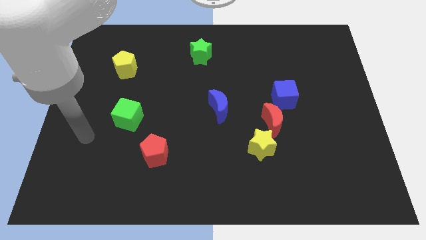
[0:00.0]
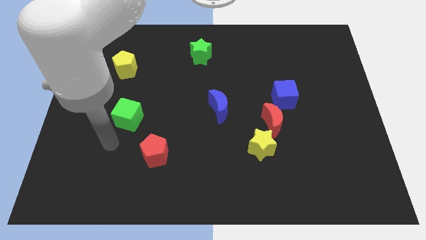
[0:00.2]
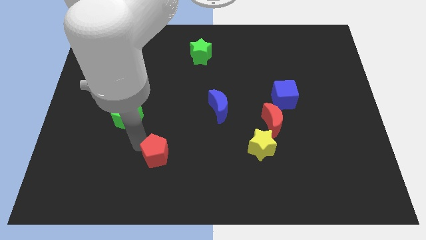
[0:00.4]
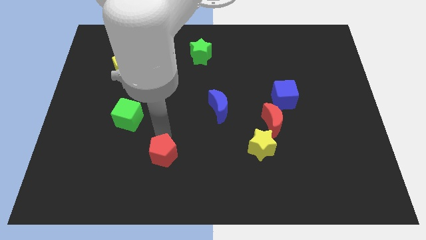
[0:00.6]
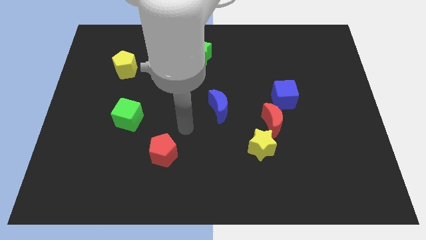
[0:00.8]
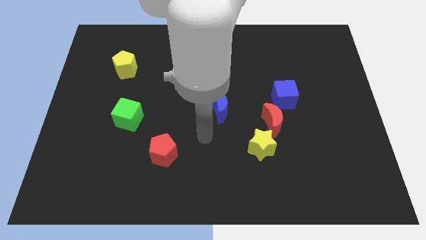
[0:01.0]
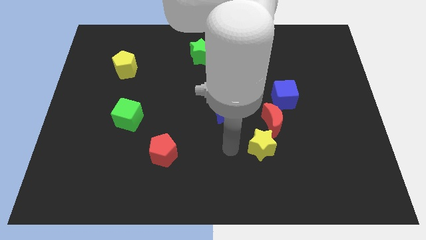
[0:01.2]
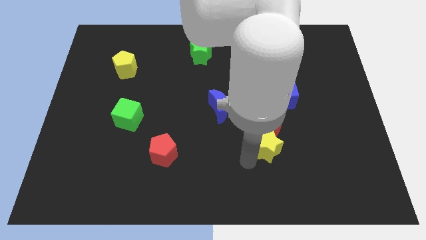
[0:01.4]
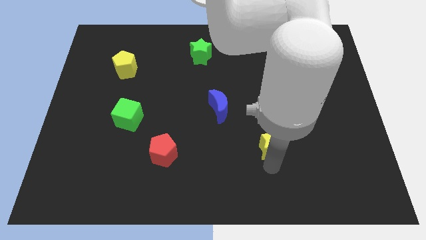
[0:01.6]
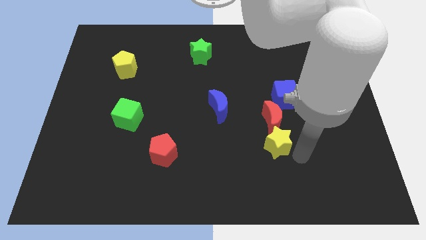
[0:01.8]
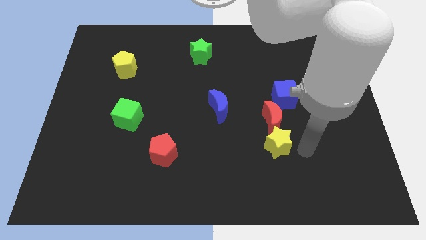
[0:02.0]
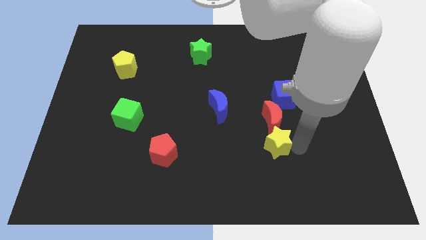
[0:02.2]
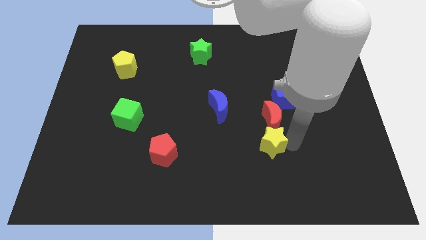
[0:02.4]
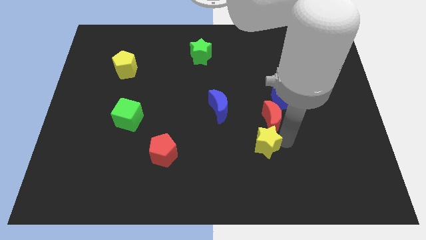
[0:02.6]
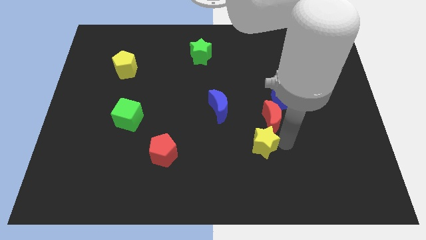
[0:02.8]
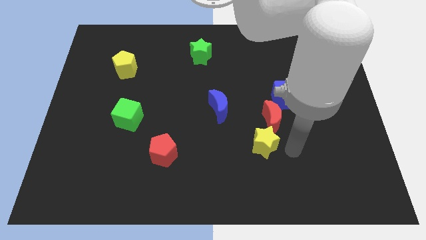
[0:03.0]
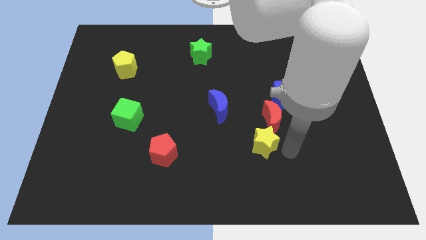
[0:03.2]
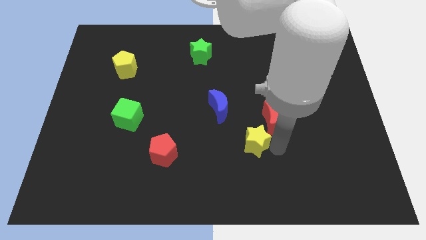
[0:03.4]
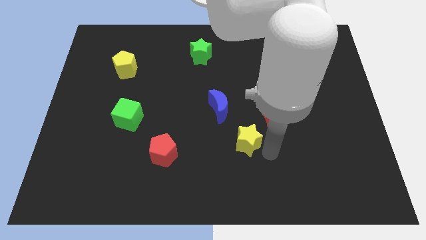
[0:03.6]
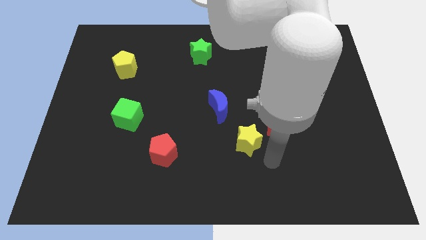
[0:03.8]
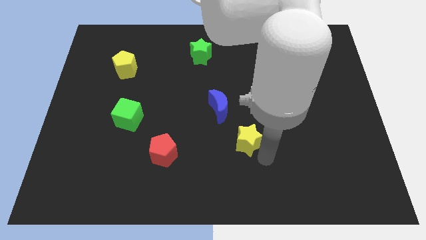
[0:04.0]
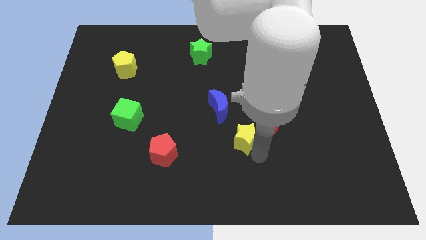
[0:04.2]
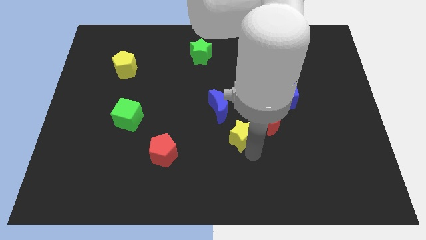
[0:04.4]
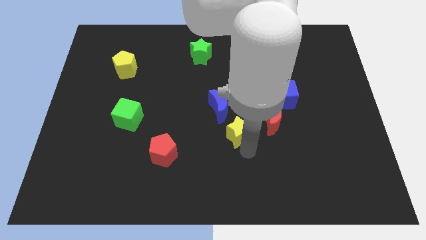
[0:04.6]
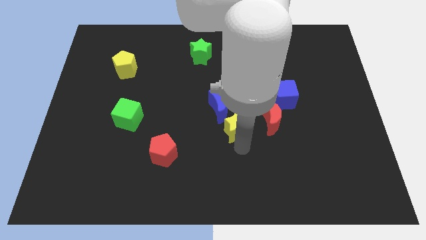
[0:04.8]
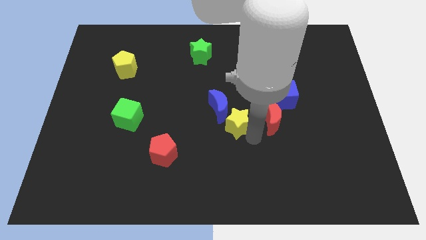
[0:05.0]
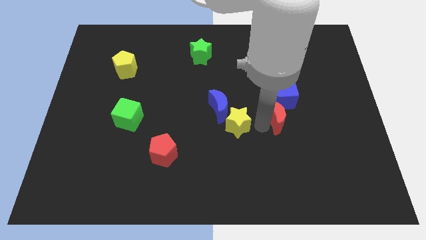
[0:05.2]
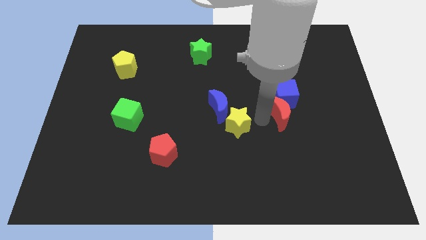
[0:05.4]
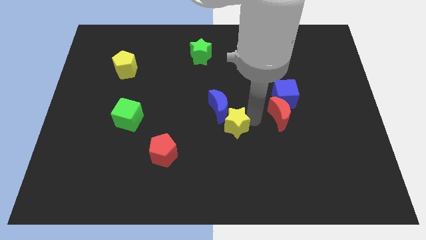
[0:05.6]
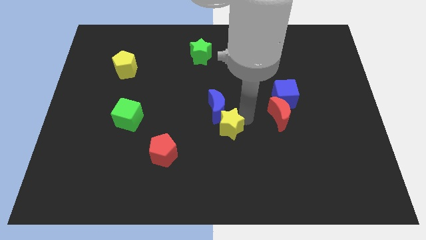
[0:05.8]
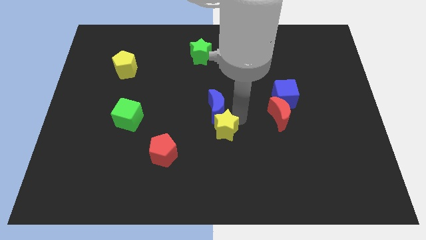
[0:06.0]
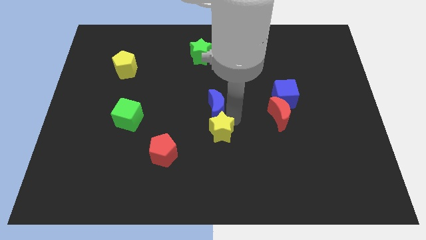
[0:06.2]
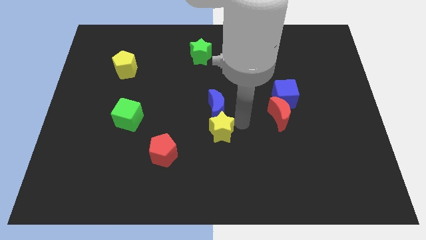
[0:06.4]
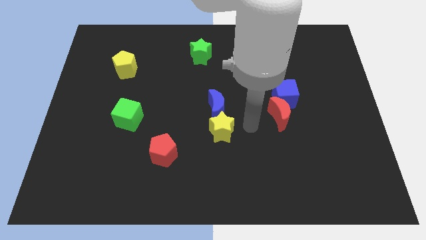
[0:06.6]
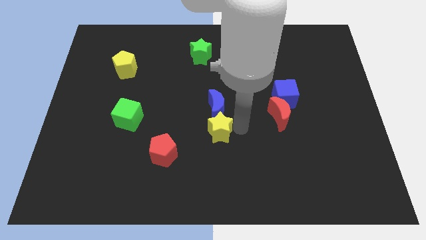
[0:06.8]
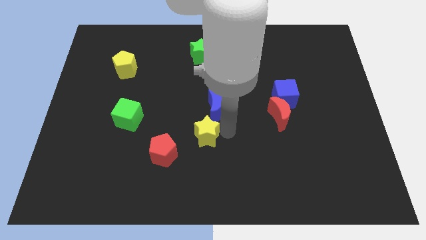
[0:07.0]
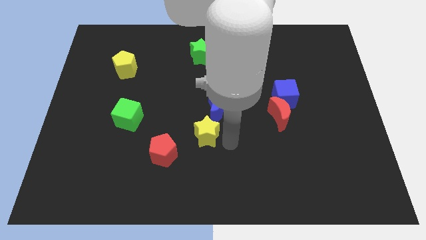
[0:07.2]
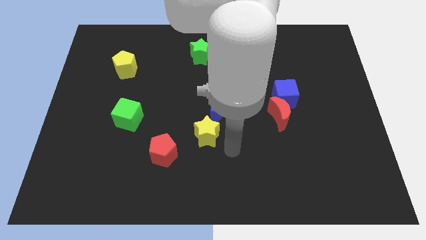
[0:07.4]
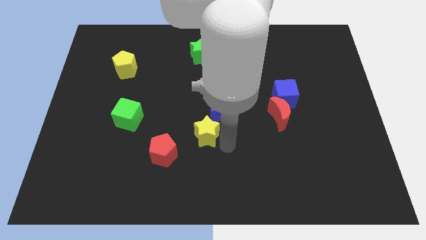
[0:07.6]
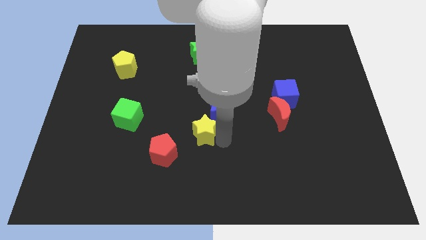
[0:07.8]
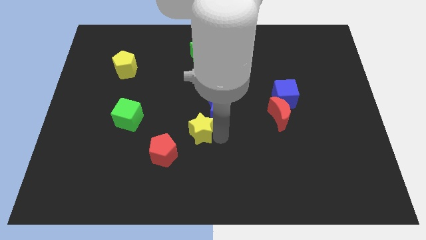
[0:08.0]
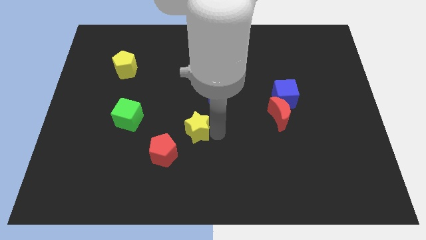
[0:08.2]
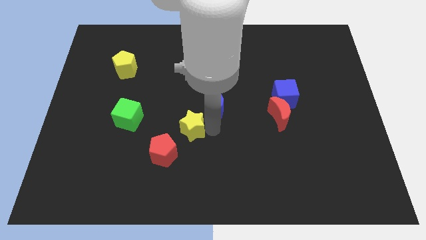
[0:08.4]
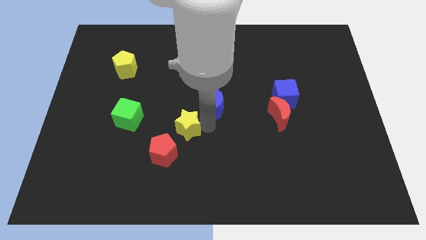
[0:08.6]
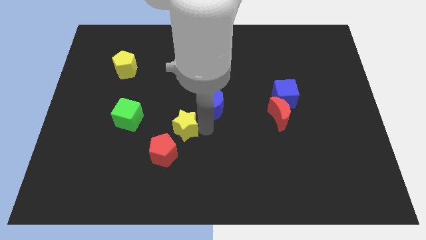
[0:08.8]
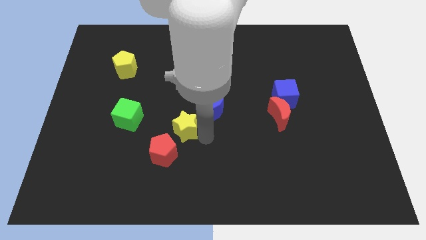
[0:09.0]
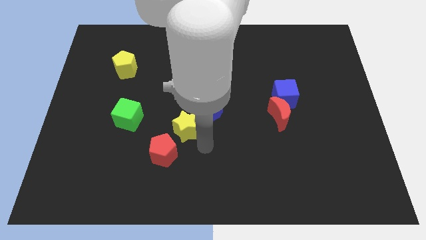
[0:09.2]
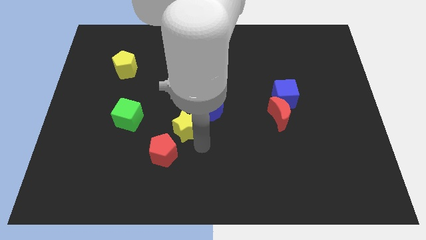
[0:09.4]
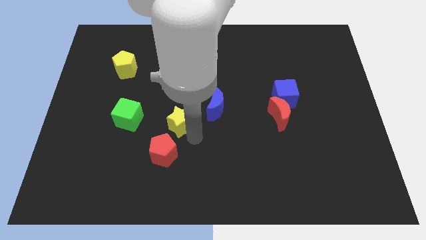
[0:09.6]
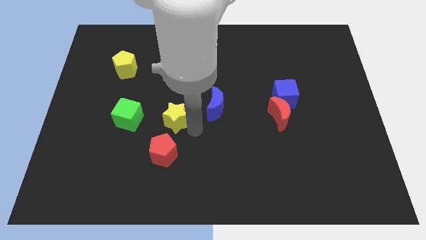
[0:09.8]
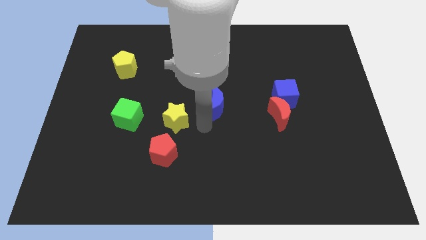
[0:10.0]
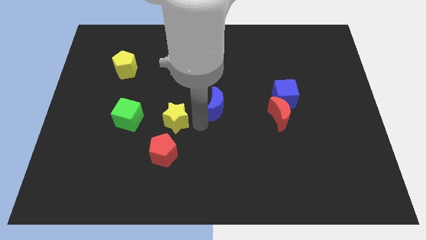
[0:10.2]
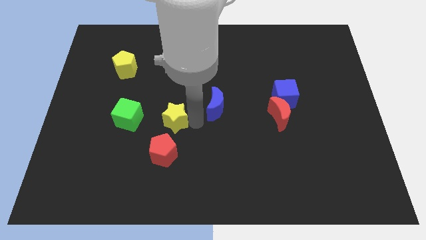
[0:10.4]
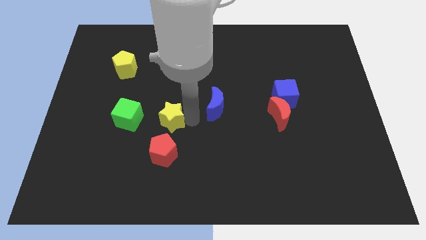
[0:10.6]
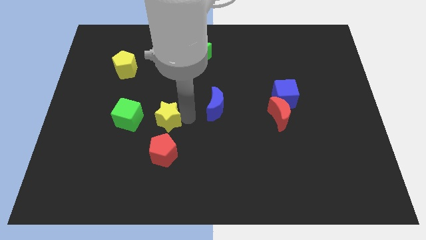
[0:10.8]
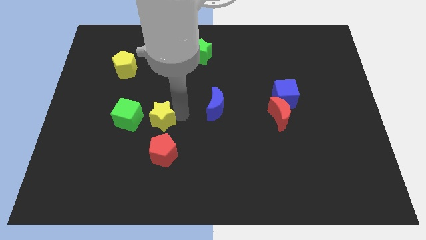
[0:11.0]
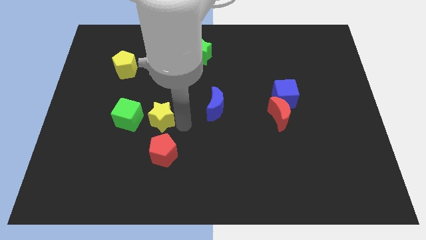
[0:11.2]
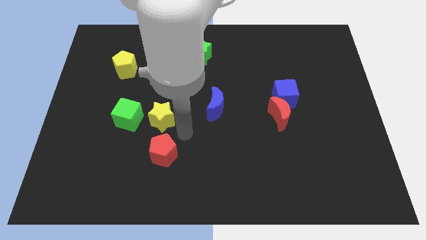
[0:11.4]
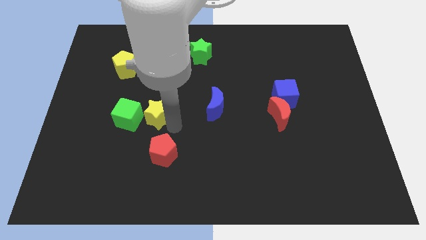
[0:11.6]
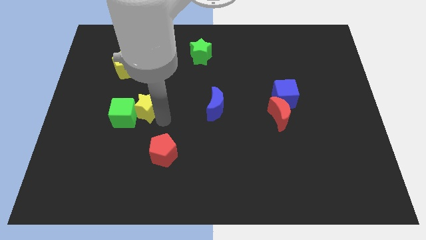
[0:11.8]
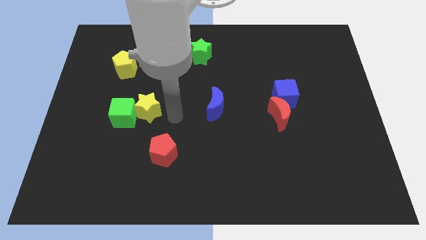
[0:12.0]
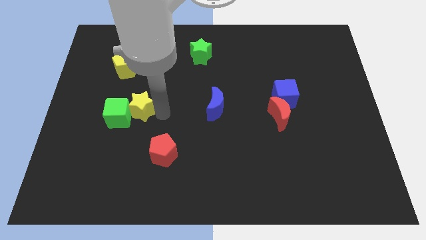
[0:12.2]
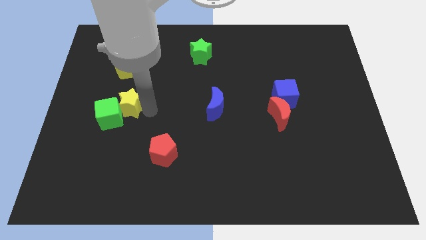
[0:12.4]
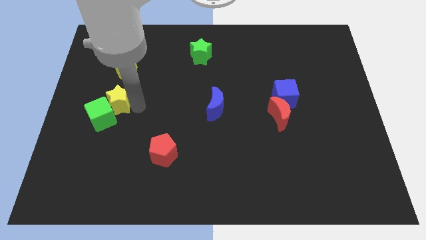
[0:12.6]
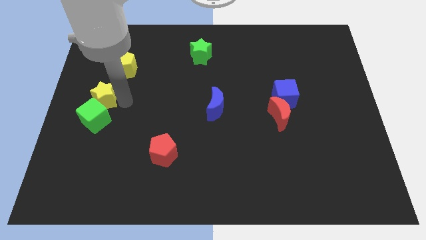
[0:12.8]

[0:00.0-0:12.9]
push the yellow star to the left side

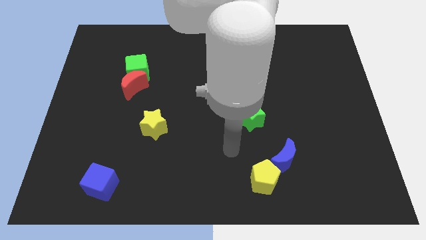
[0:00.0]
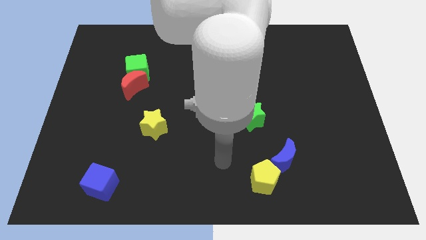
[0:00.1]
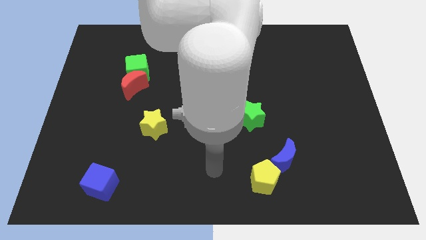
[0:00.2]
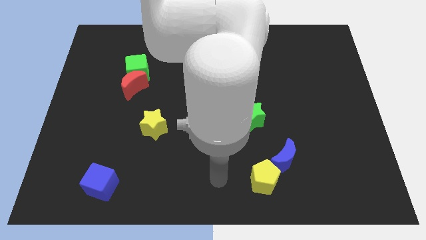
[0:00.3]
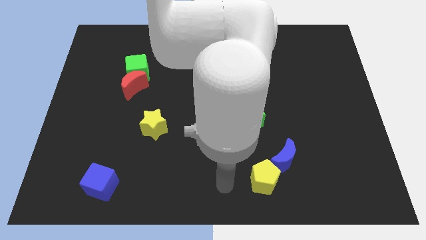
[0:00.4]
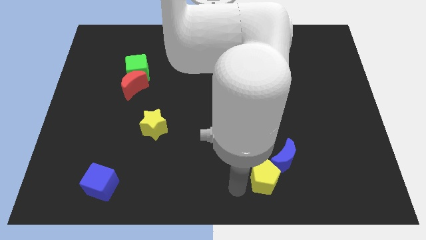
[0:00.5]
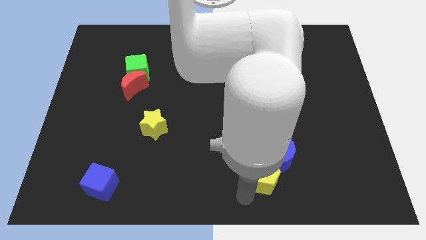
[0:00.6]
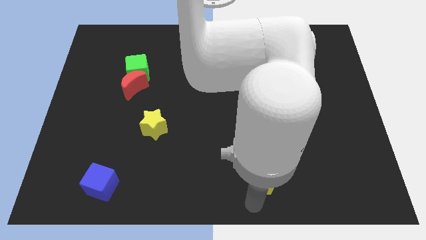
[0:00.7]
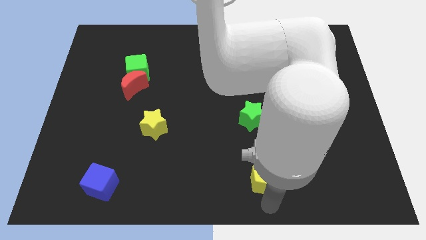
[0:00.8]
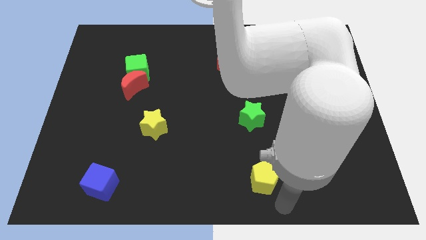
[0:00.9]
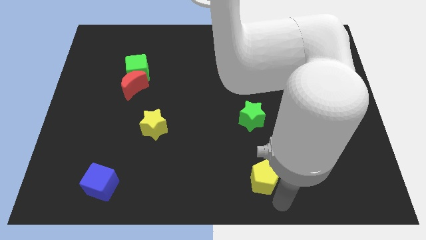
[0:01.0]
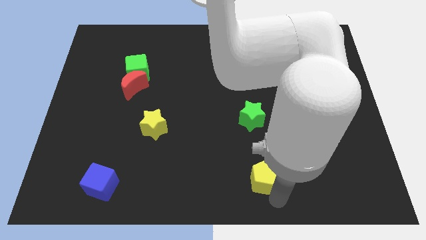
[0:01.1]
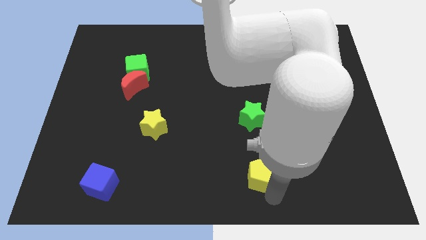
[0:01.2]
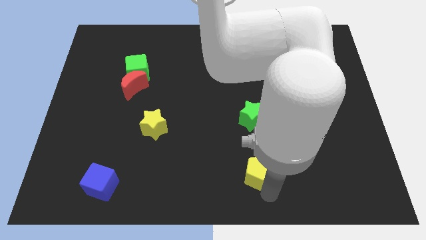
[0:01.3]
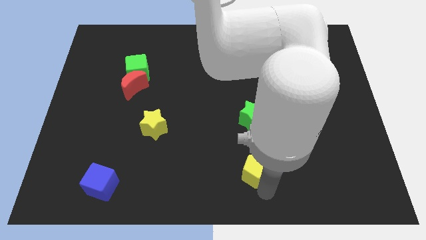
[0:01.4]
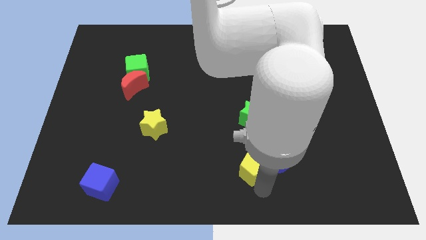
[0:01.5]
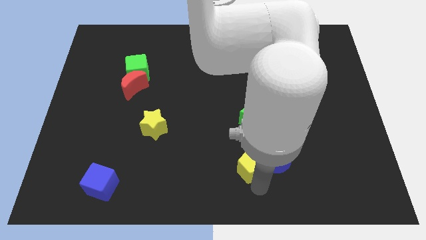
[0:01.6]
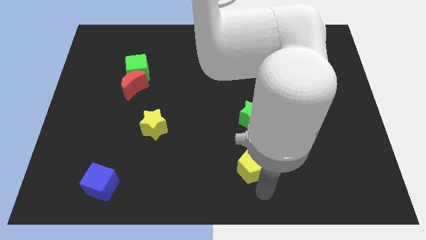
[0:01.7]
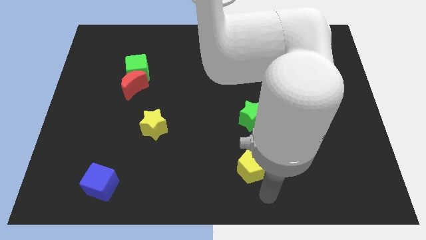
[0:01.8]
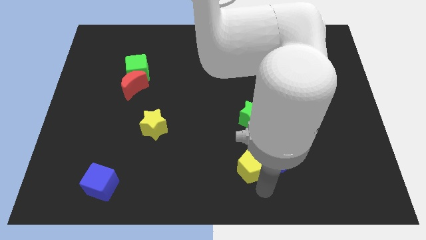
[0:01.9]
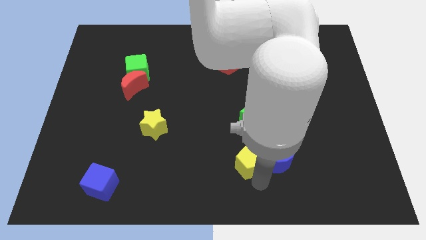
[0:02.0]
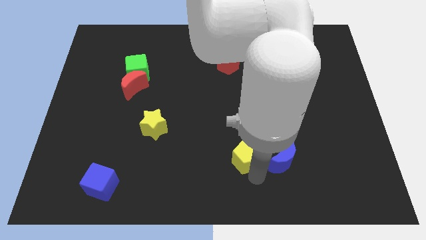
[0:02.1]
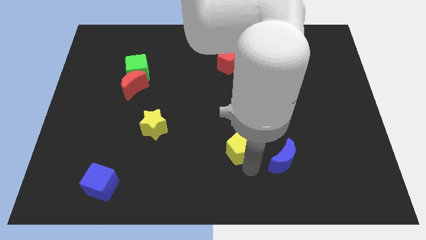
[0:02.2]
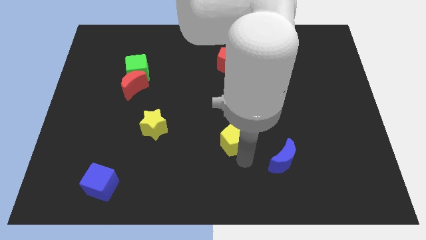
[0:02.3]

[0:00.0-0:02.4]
move the yellow pentagon to the center
